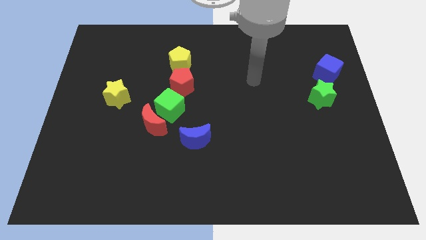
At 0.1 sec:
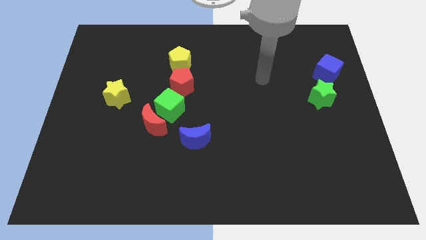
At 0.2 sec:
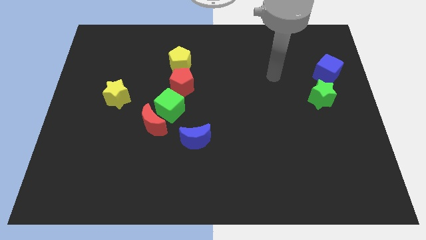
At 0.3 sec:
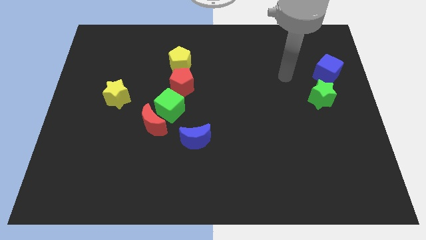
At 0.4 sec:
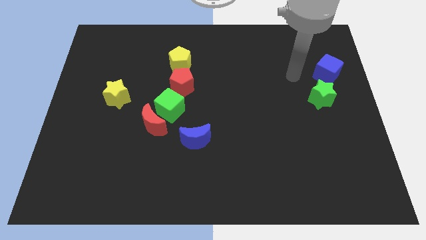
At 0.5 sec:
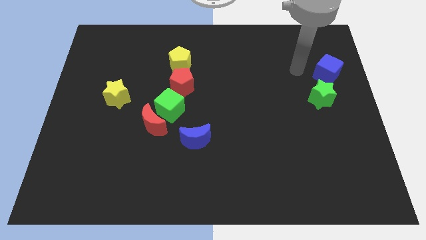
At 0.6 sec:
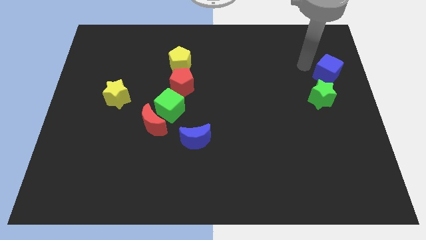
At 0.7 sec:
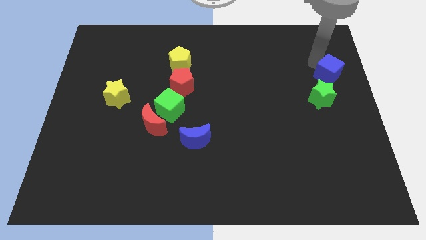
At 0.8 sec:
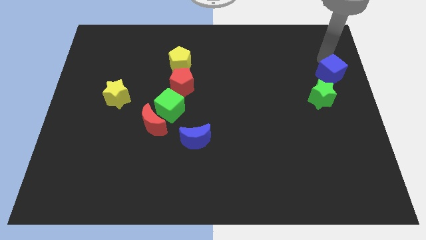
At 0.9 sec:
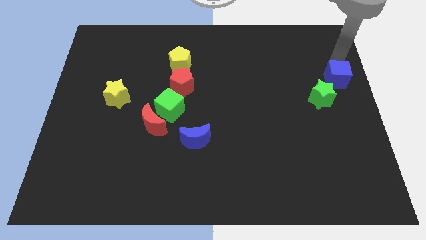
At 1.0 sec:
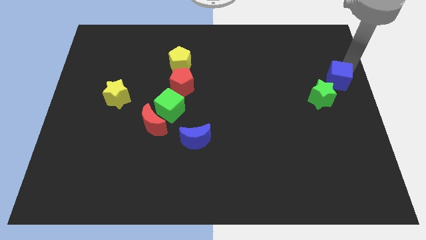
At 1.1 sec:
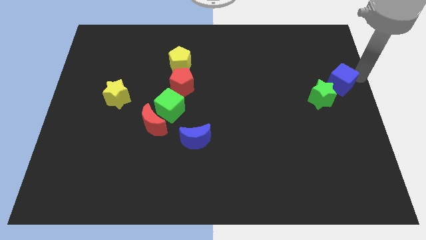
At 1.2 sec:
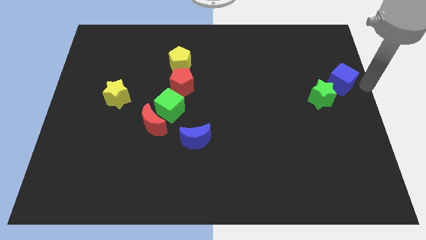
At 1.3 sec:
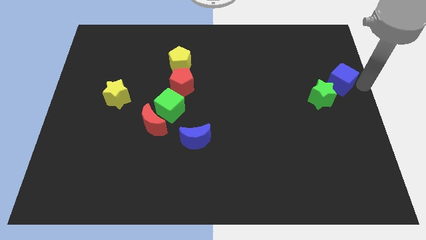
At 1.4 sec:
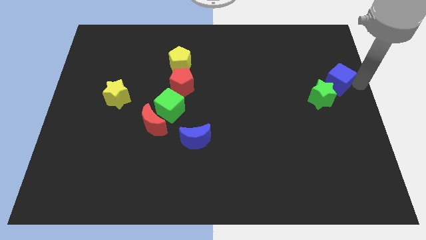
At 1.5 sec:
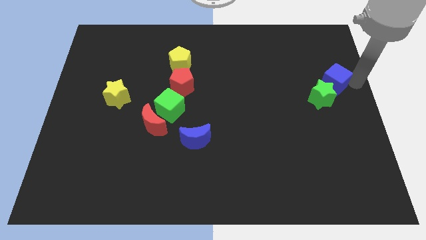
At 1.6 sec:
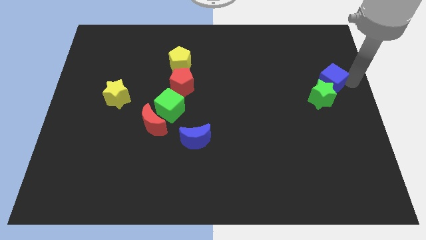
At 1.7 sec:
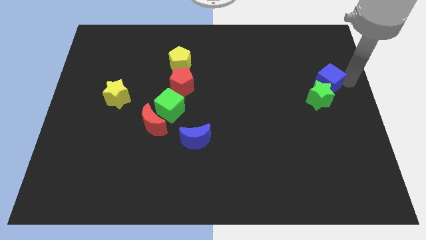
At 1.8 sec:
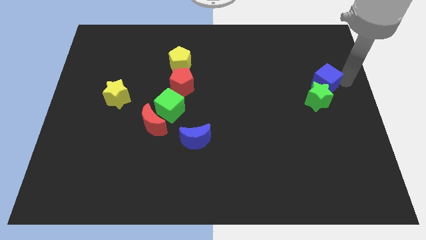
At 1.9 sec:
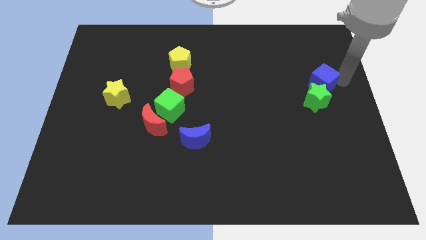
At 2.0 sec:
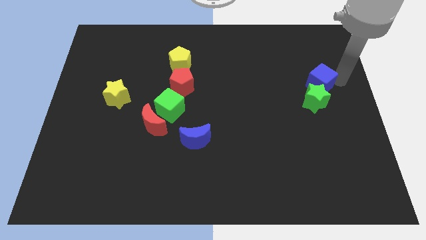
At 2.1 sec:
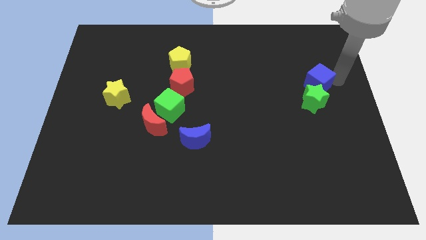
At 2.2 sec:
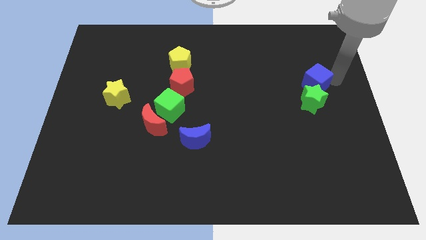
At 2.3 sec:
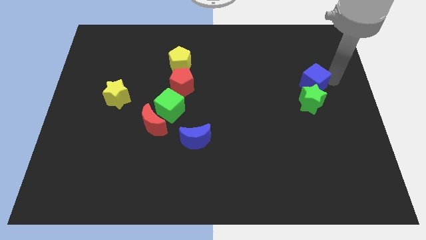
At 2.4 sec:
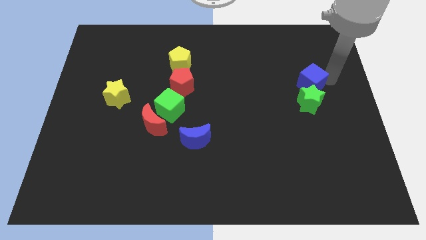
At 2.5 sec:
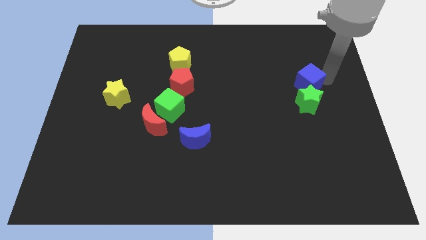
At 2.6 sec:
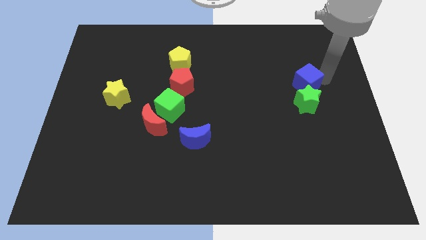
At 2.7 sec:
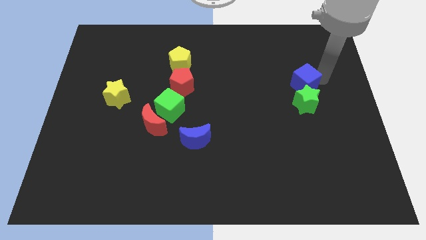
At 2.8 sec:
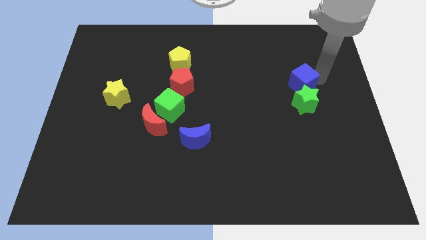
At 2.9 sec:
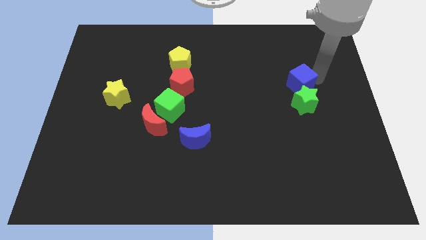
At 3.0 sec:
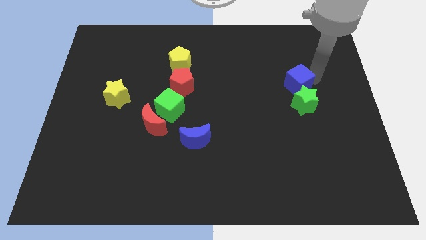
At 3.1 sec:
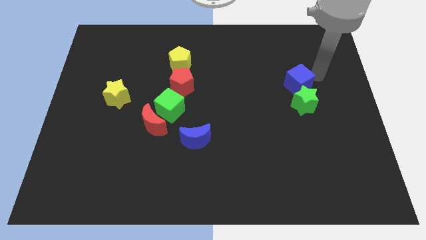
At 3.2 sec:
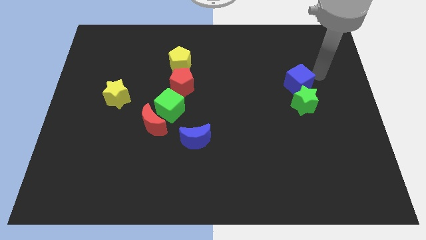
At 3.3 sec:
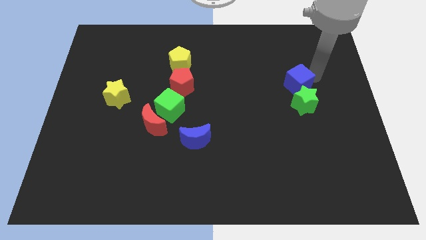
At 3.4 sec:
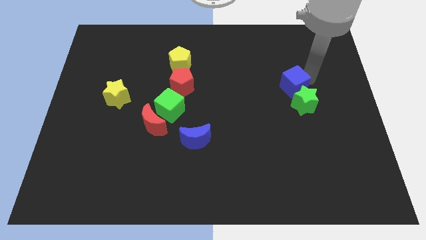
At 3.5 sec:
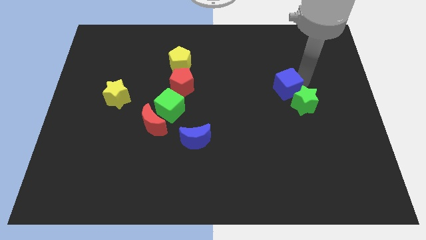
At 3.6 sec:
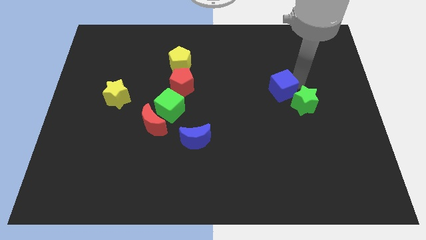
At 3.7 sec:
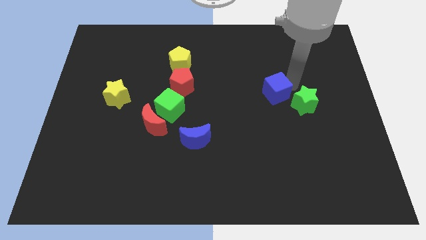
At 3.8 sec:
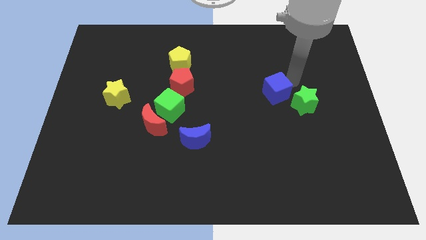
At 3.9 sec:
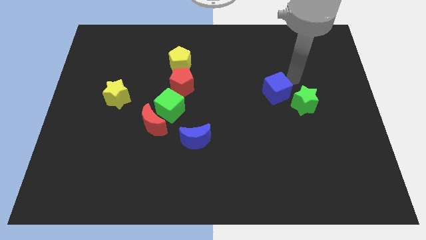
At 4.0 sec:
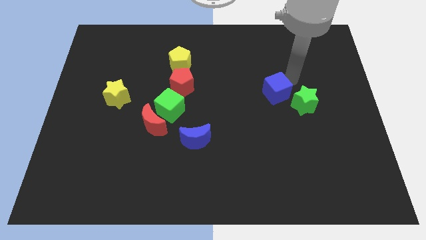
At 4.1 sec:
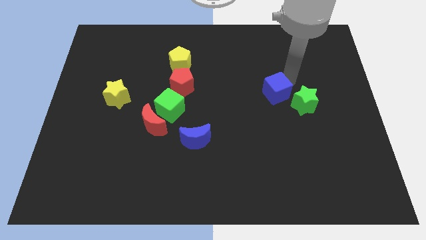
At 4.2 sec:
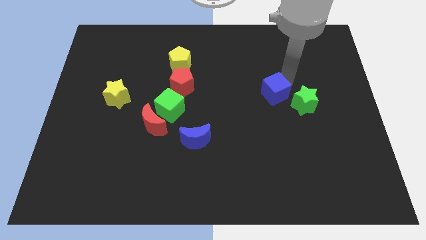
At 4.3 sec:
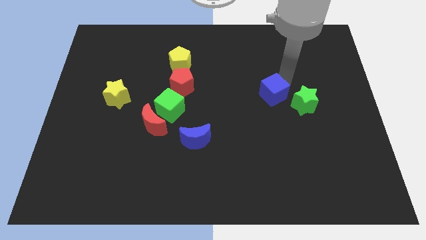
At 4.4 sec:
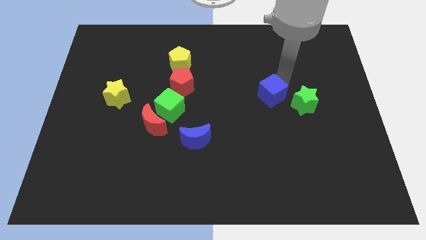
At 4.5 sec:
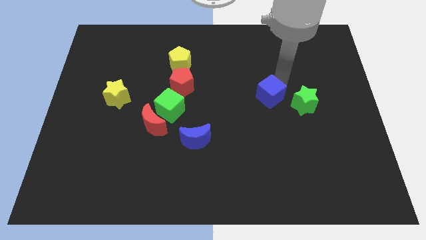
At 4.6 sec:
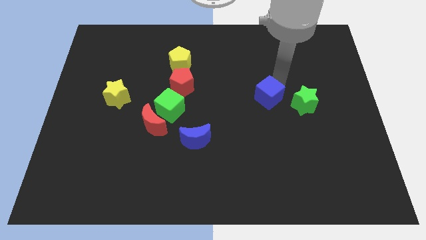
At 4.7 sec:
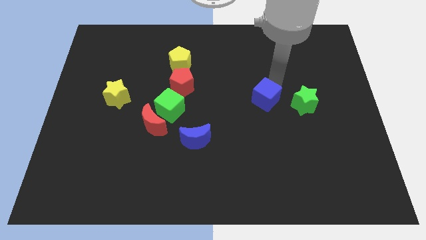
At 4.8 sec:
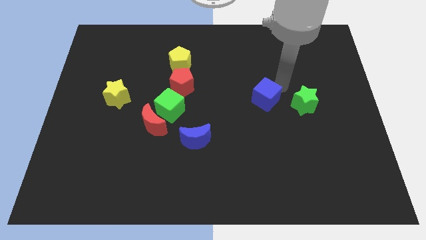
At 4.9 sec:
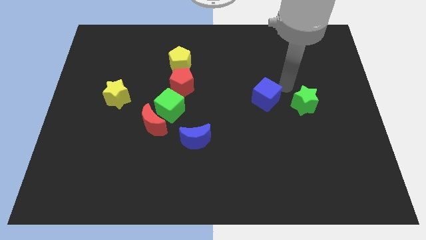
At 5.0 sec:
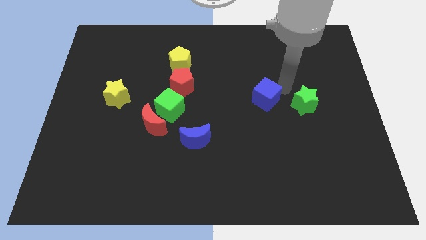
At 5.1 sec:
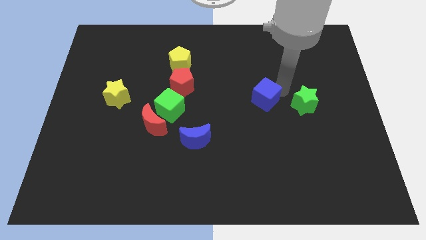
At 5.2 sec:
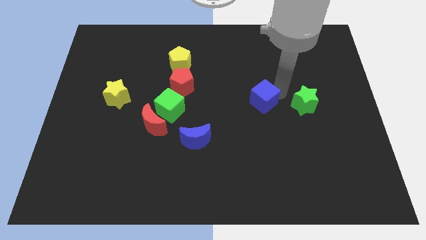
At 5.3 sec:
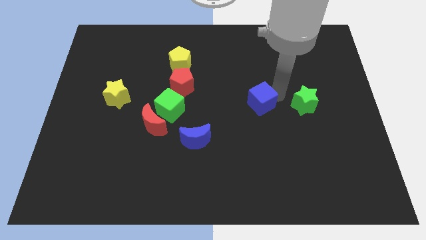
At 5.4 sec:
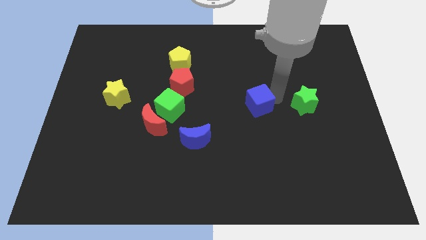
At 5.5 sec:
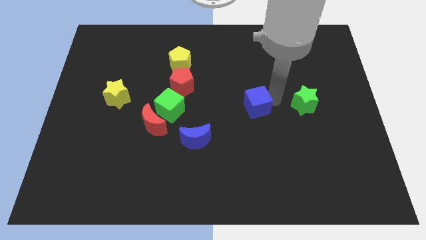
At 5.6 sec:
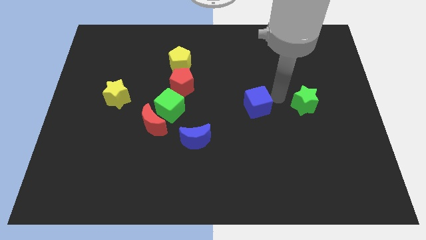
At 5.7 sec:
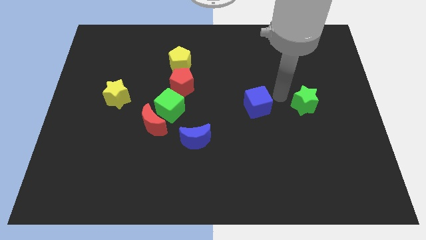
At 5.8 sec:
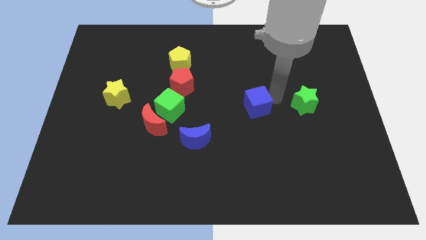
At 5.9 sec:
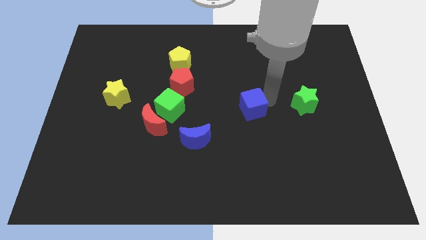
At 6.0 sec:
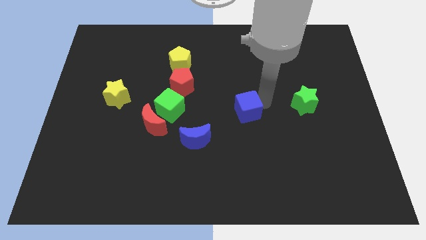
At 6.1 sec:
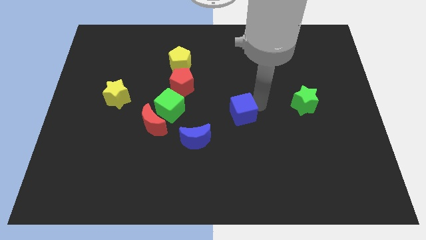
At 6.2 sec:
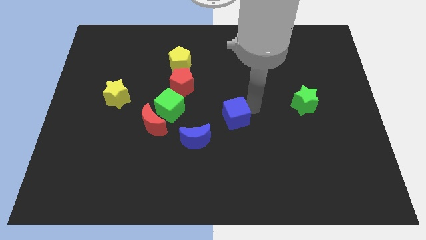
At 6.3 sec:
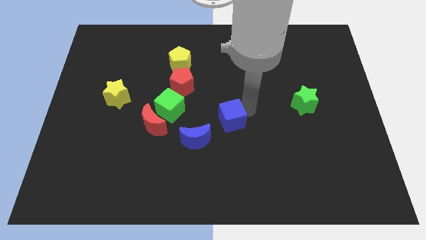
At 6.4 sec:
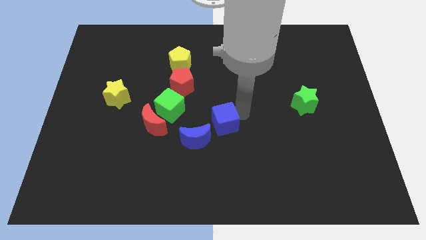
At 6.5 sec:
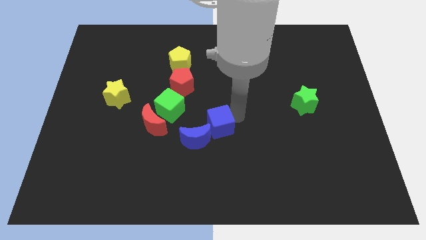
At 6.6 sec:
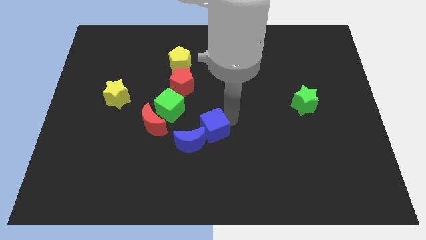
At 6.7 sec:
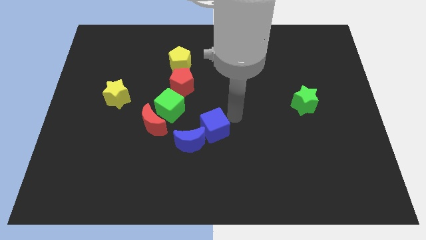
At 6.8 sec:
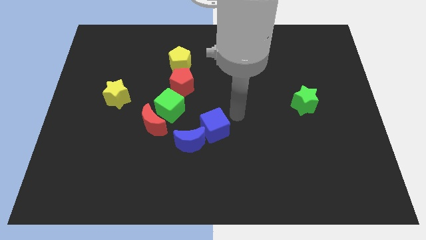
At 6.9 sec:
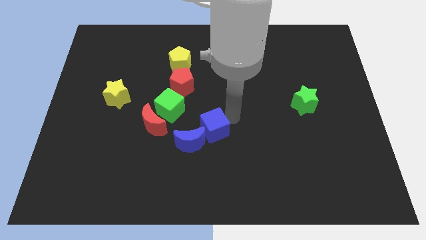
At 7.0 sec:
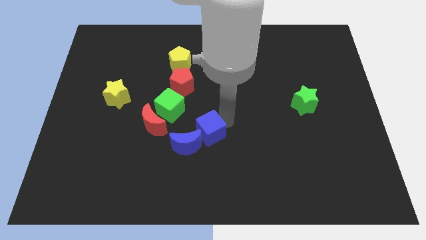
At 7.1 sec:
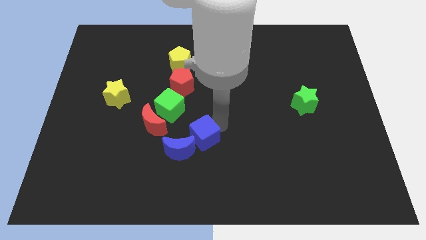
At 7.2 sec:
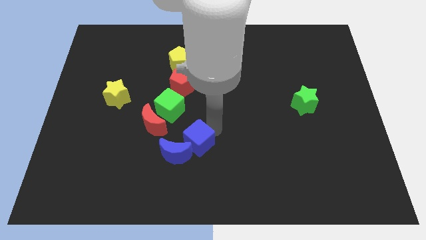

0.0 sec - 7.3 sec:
push the blue cube close to the blue moon

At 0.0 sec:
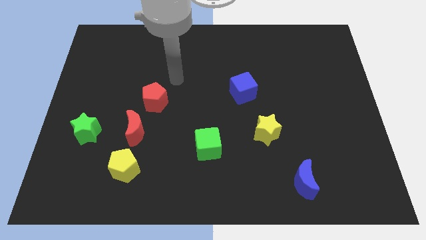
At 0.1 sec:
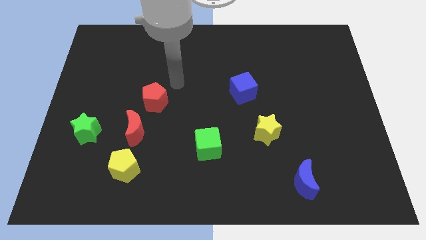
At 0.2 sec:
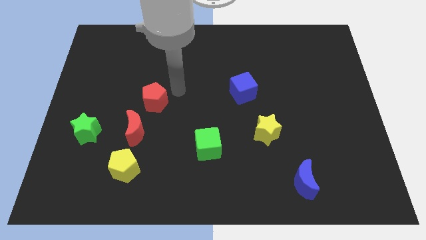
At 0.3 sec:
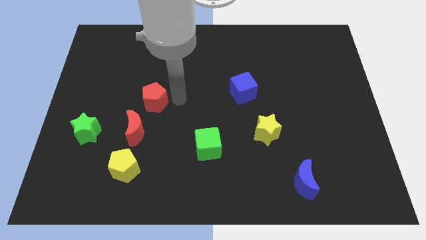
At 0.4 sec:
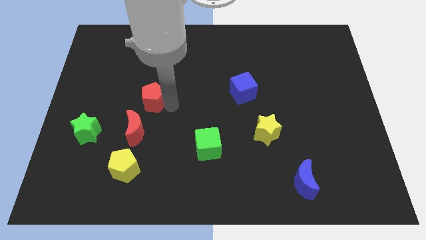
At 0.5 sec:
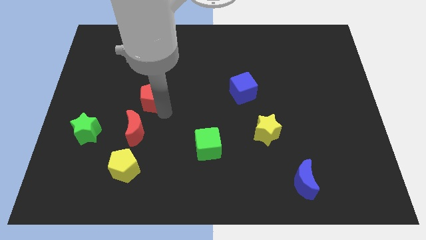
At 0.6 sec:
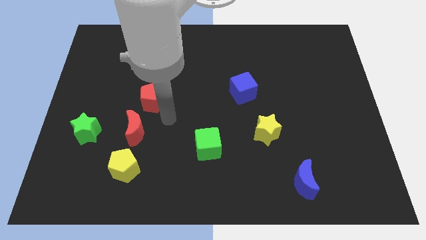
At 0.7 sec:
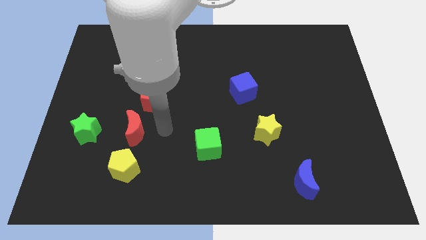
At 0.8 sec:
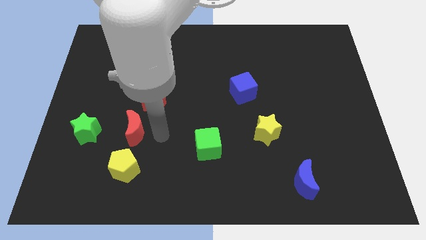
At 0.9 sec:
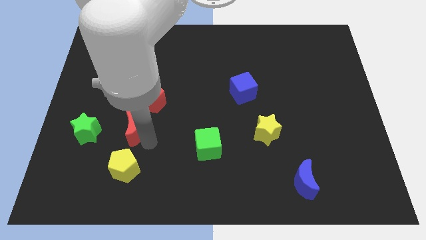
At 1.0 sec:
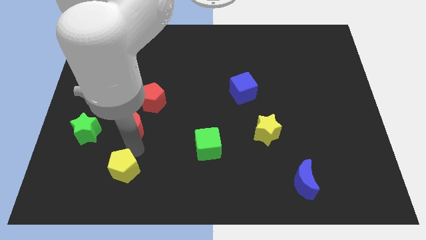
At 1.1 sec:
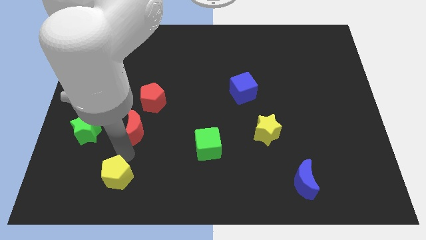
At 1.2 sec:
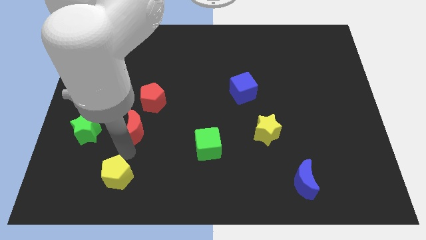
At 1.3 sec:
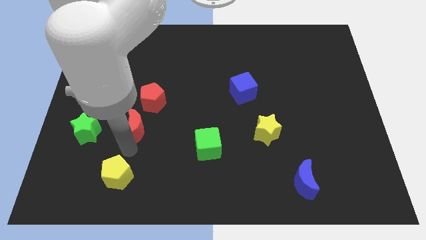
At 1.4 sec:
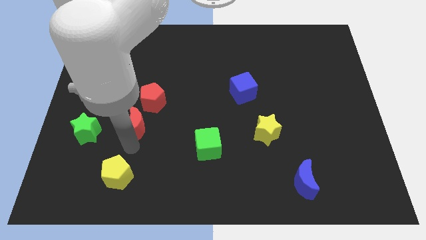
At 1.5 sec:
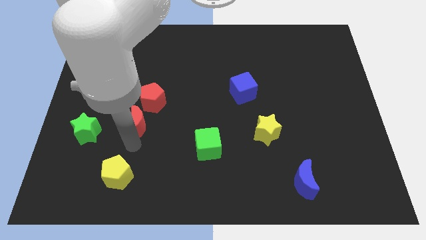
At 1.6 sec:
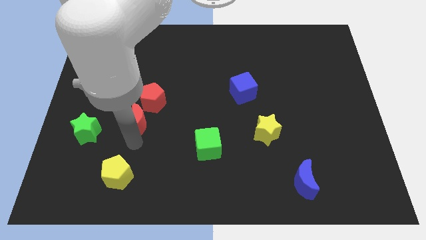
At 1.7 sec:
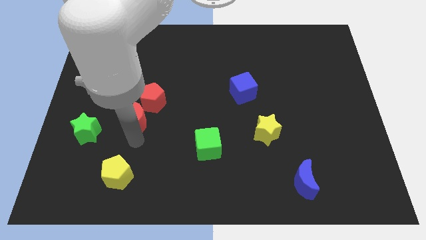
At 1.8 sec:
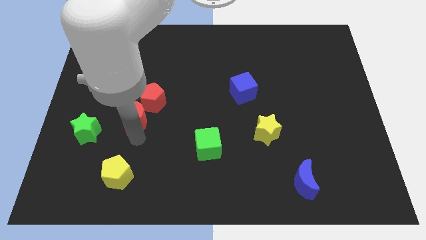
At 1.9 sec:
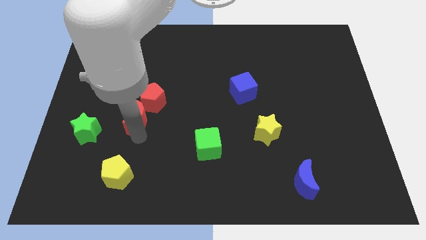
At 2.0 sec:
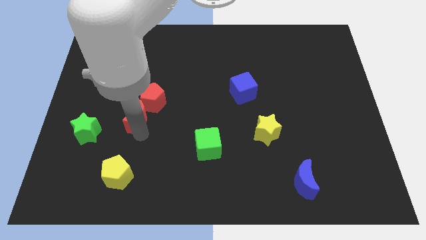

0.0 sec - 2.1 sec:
push the red moon close to the red pentagon
